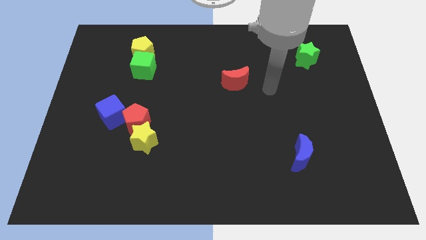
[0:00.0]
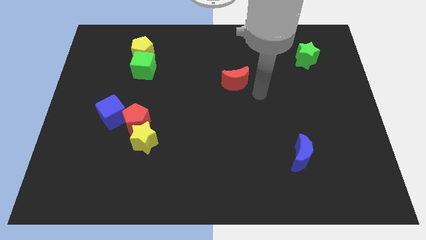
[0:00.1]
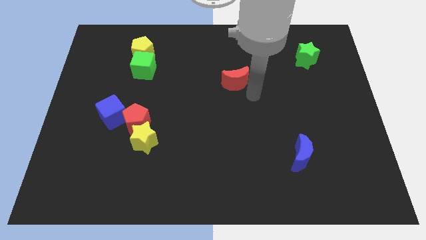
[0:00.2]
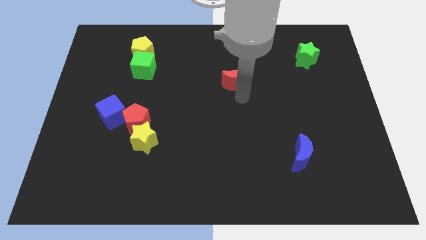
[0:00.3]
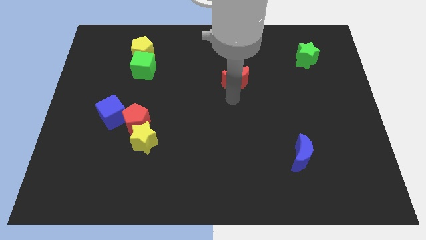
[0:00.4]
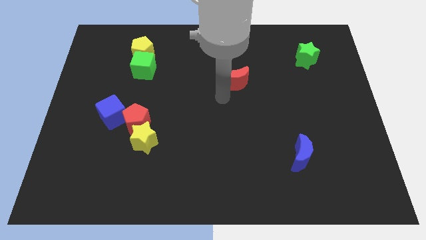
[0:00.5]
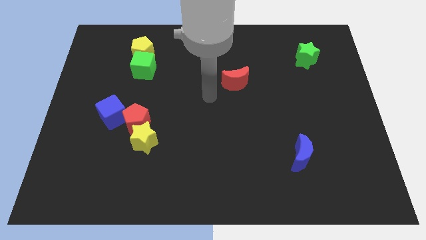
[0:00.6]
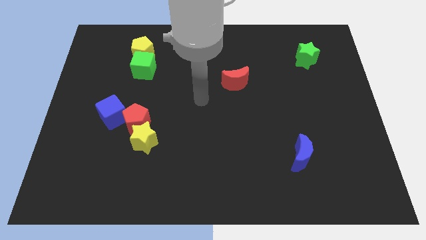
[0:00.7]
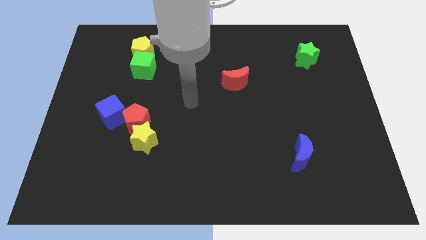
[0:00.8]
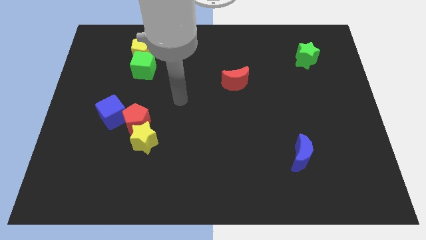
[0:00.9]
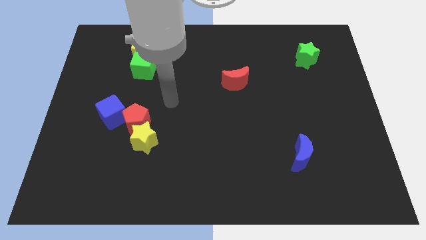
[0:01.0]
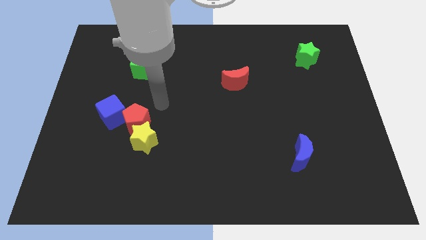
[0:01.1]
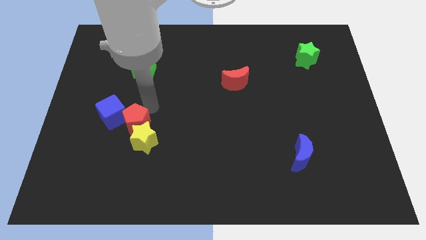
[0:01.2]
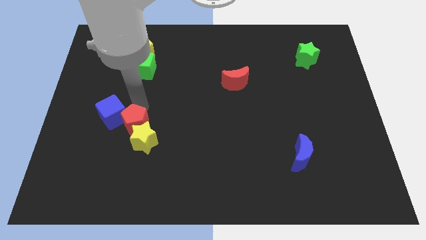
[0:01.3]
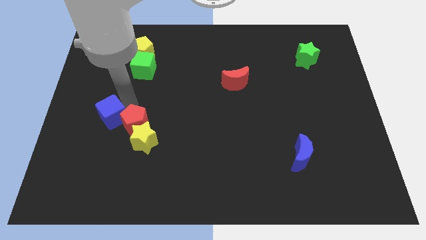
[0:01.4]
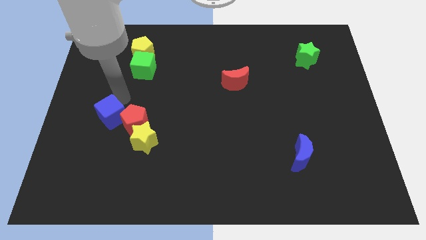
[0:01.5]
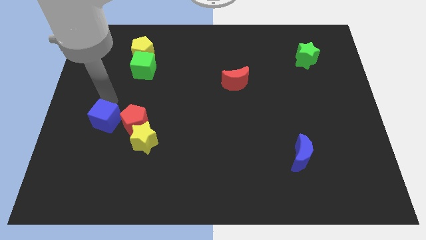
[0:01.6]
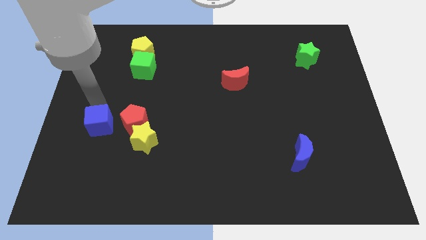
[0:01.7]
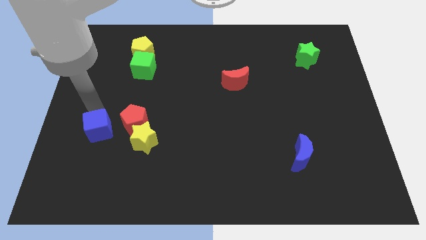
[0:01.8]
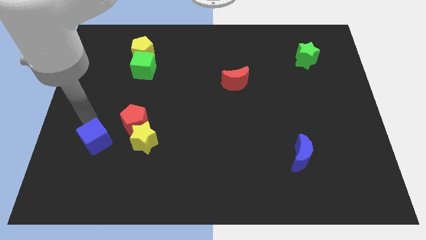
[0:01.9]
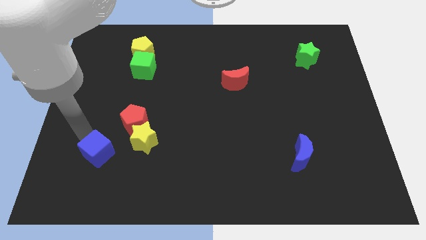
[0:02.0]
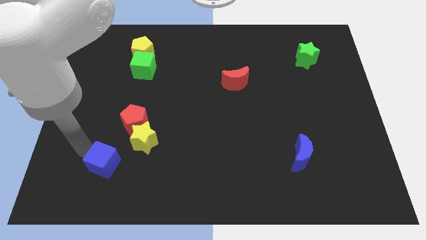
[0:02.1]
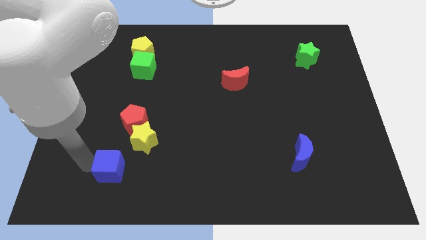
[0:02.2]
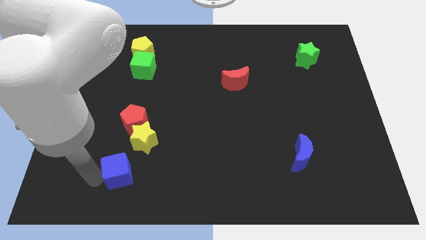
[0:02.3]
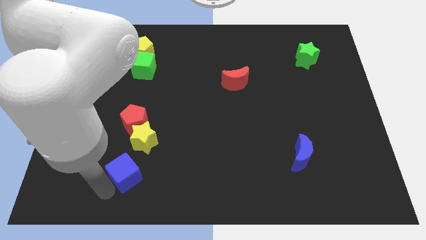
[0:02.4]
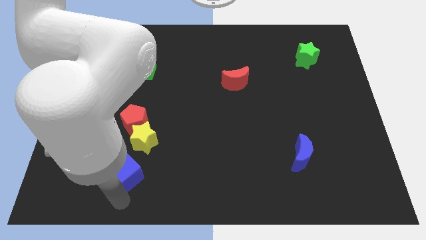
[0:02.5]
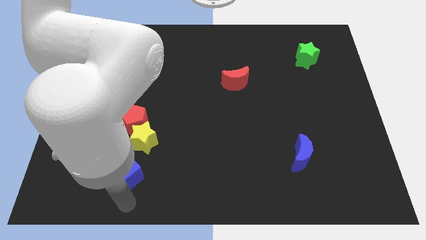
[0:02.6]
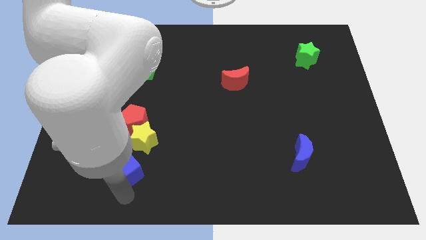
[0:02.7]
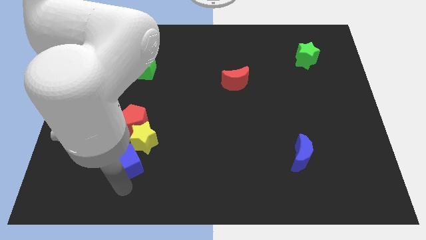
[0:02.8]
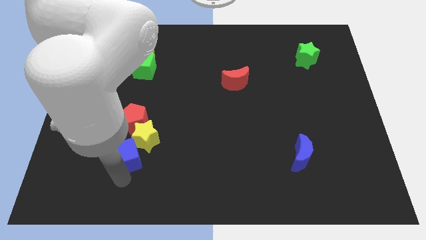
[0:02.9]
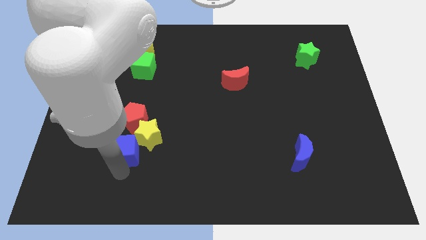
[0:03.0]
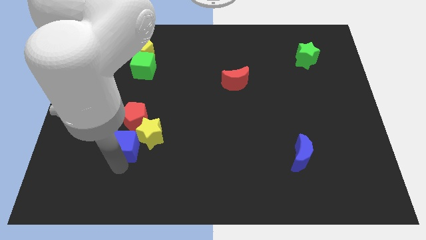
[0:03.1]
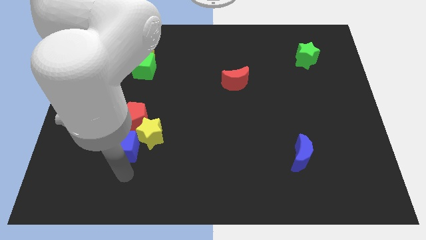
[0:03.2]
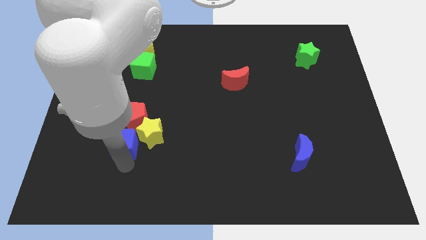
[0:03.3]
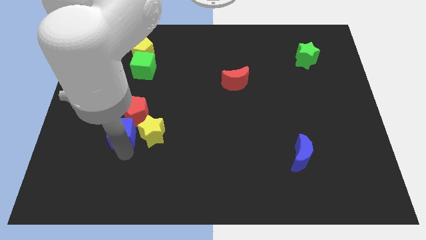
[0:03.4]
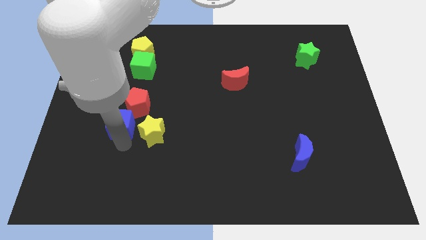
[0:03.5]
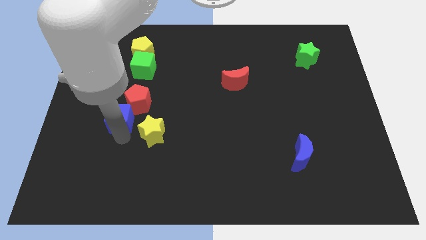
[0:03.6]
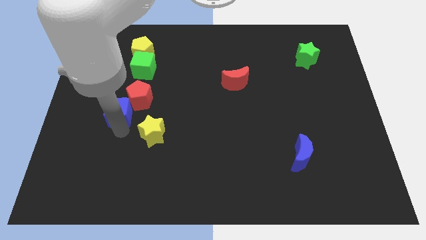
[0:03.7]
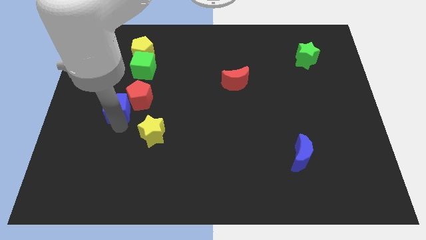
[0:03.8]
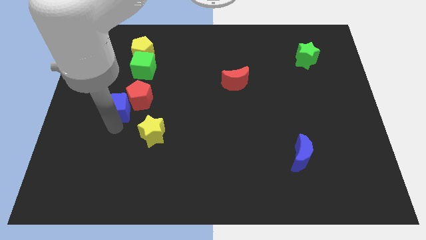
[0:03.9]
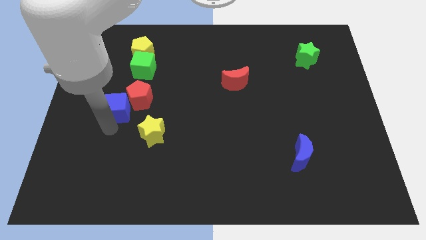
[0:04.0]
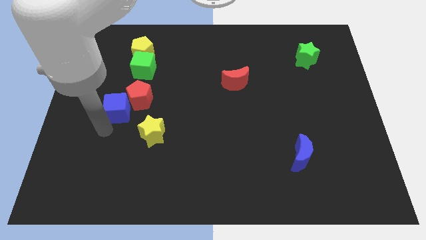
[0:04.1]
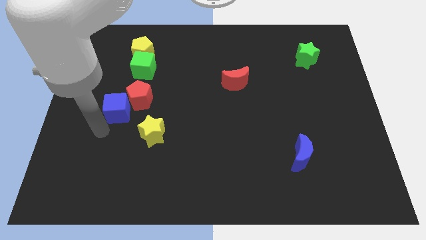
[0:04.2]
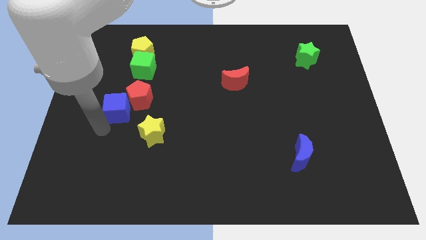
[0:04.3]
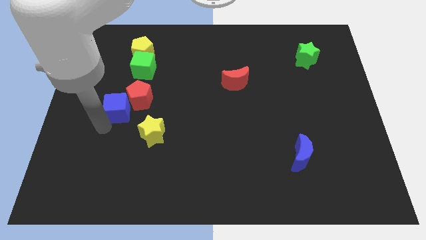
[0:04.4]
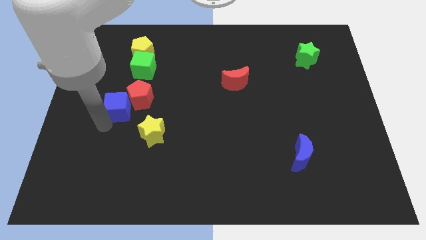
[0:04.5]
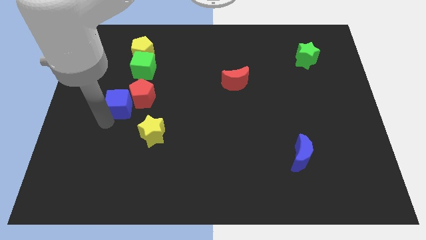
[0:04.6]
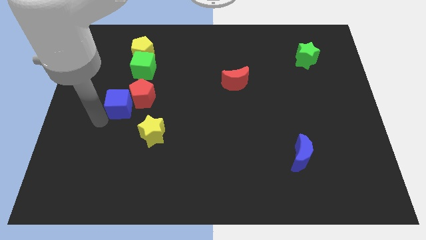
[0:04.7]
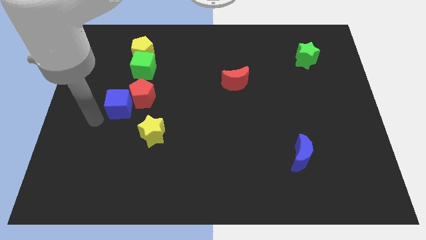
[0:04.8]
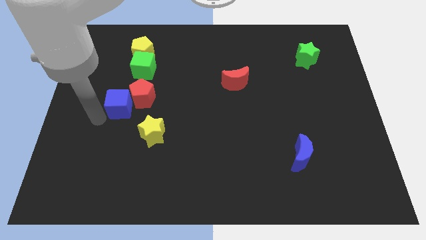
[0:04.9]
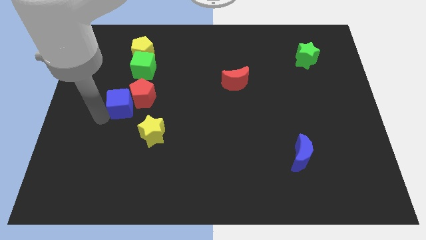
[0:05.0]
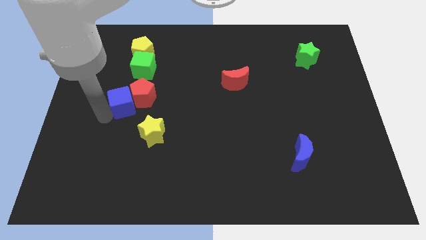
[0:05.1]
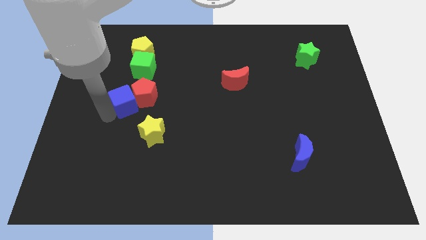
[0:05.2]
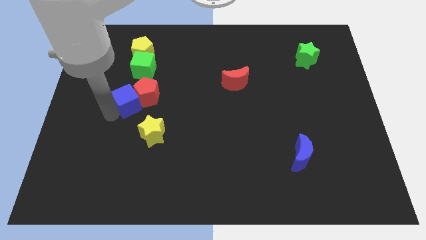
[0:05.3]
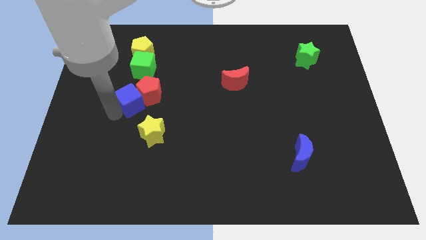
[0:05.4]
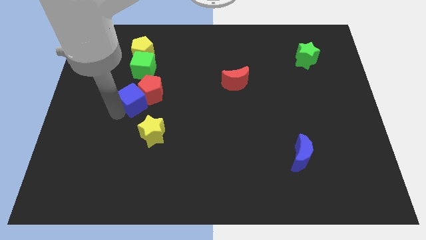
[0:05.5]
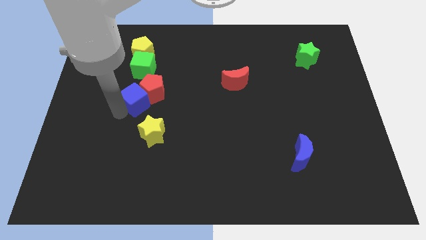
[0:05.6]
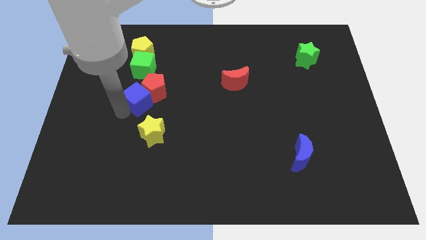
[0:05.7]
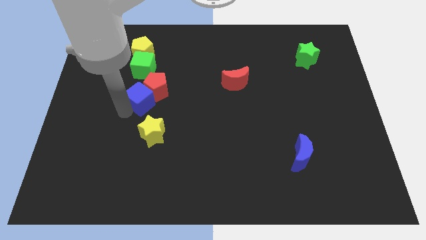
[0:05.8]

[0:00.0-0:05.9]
move the blue cube a little up and to the right

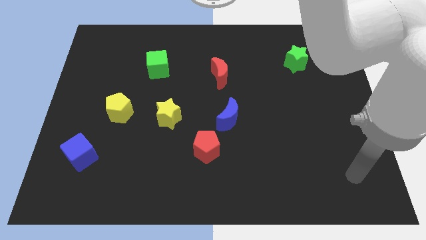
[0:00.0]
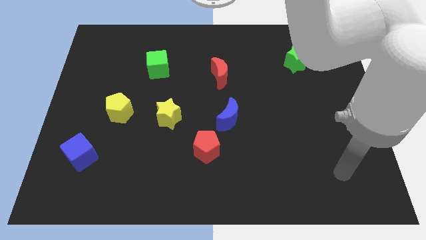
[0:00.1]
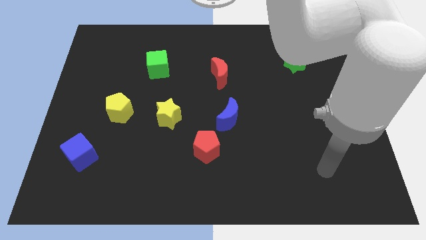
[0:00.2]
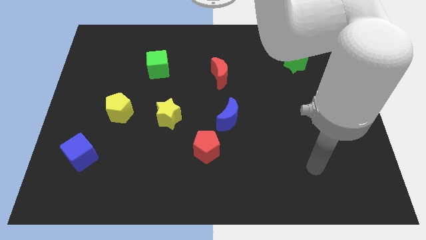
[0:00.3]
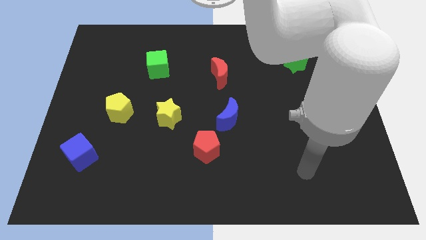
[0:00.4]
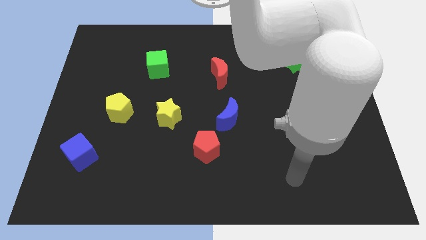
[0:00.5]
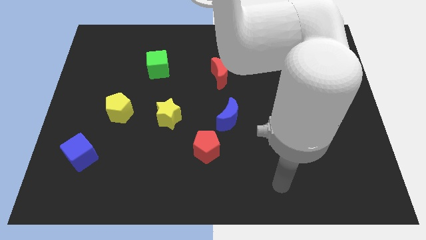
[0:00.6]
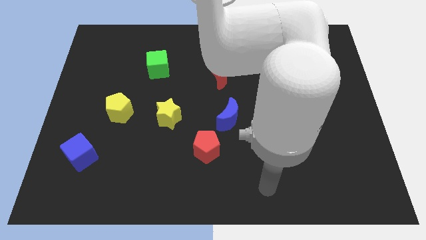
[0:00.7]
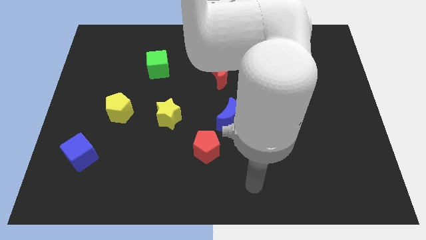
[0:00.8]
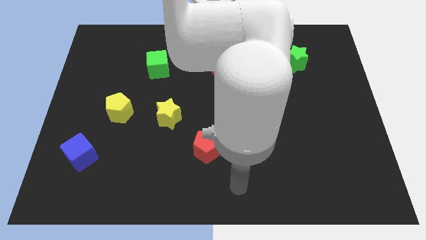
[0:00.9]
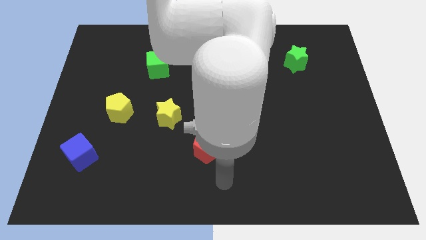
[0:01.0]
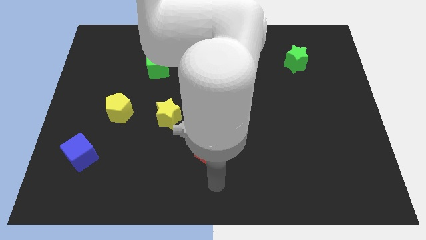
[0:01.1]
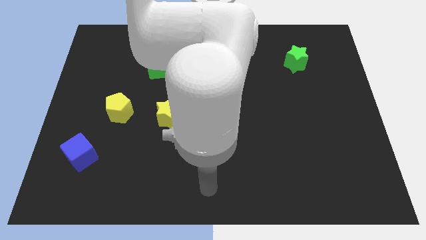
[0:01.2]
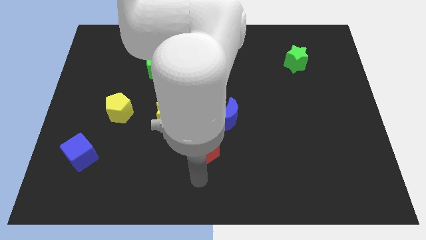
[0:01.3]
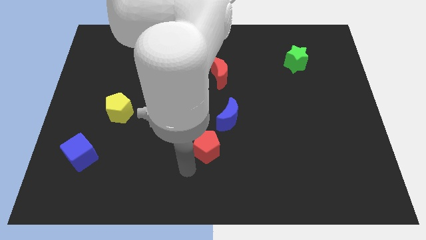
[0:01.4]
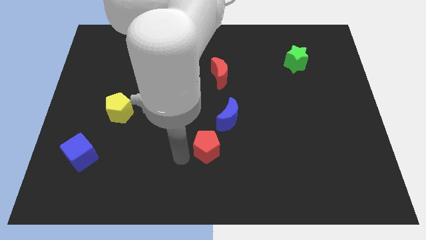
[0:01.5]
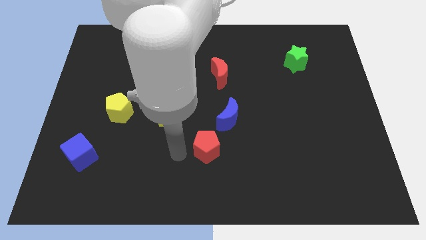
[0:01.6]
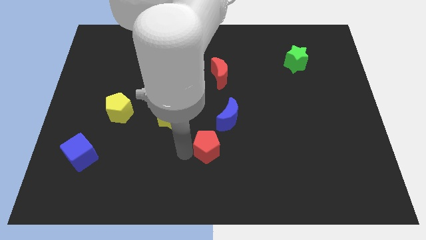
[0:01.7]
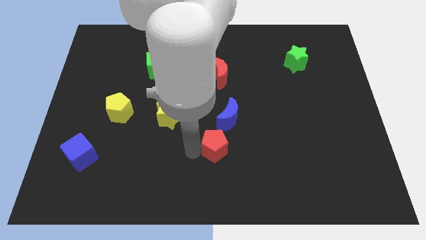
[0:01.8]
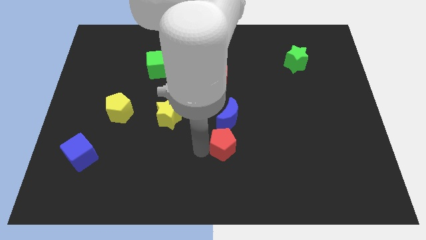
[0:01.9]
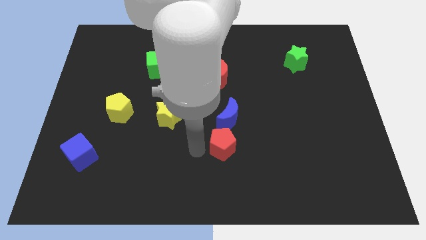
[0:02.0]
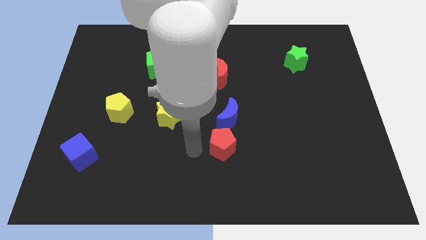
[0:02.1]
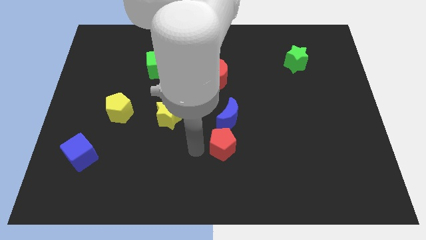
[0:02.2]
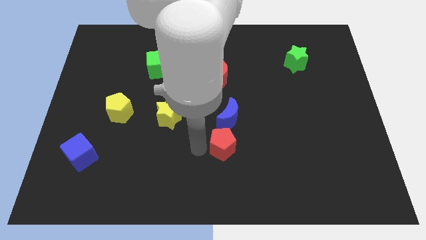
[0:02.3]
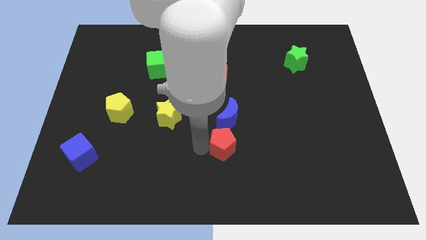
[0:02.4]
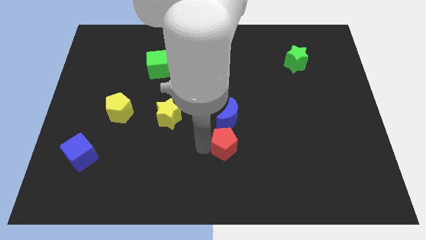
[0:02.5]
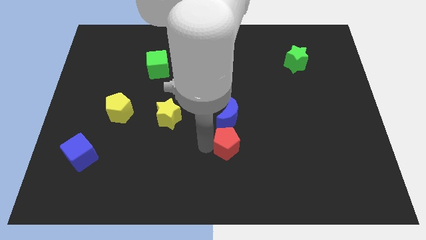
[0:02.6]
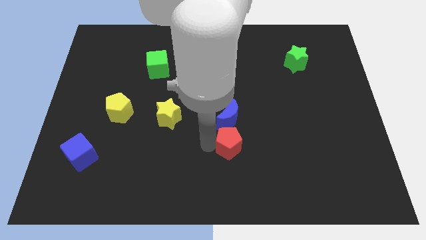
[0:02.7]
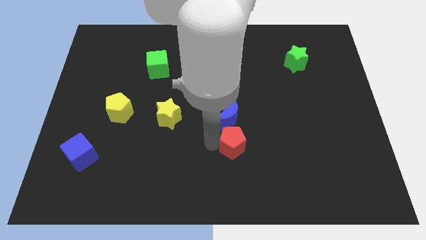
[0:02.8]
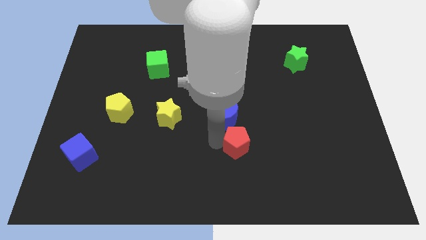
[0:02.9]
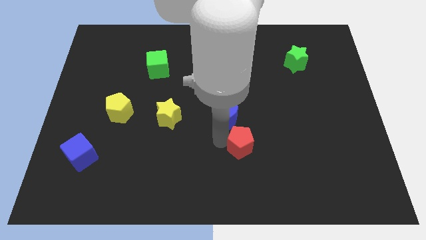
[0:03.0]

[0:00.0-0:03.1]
slightly move the red pentagon to the right
